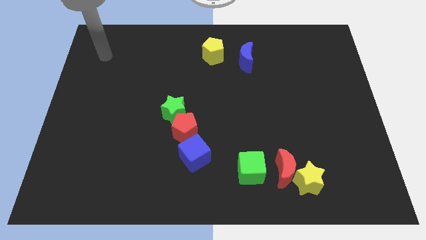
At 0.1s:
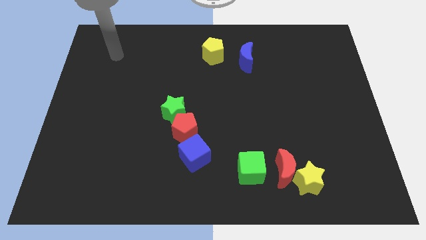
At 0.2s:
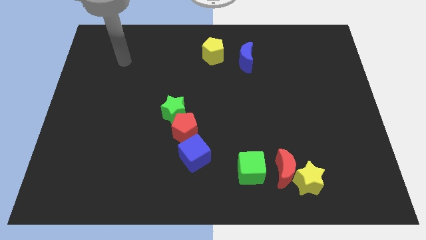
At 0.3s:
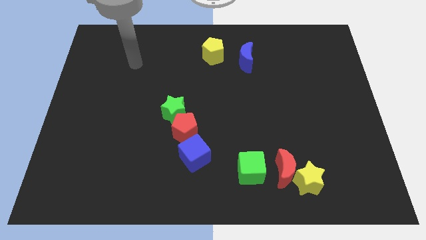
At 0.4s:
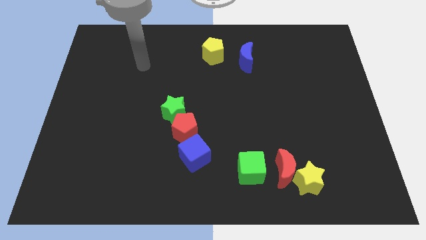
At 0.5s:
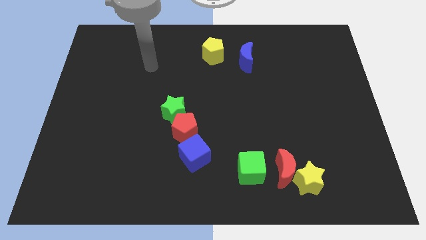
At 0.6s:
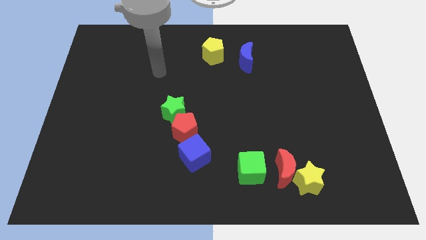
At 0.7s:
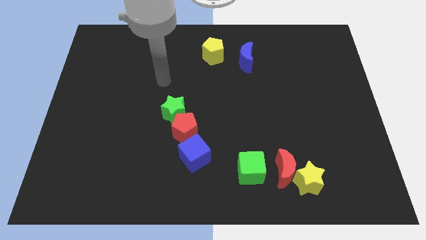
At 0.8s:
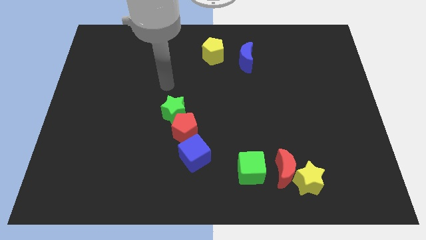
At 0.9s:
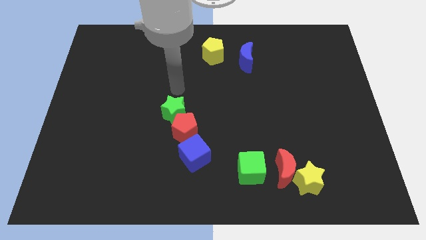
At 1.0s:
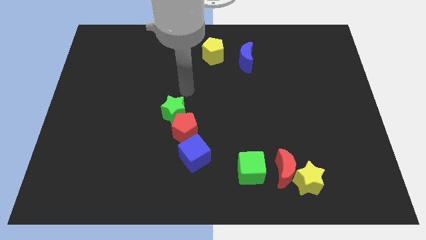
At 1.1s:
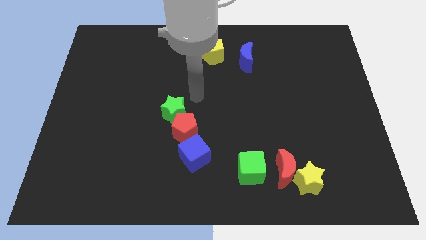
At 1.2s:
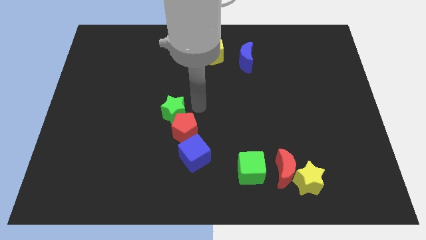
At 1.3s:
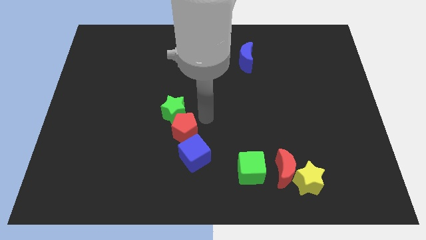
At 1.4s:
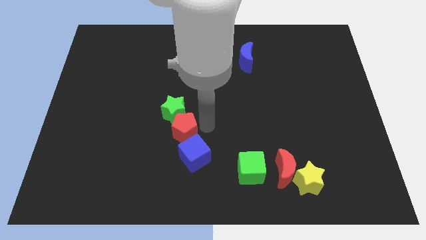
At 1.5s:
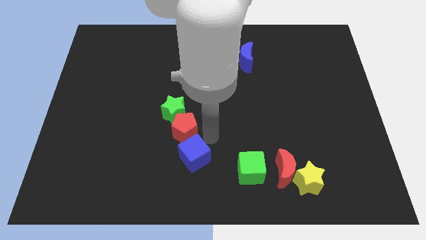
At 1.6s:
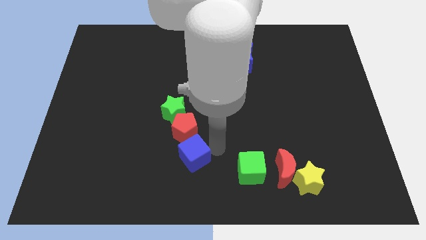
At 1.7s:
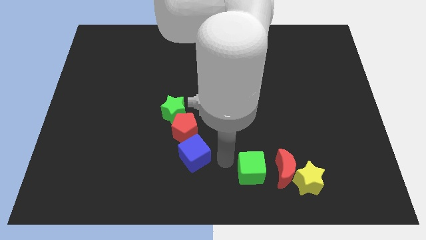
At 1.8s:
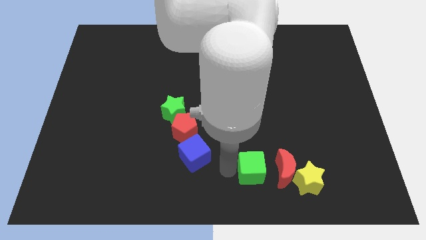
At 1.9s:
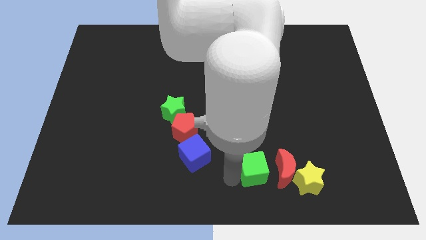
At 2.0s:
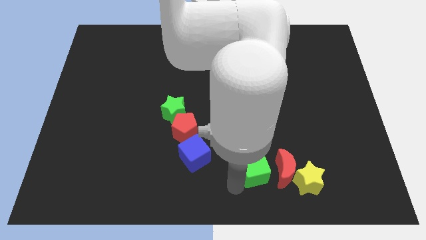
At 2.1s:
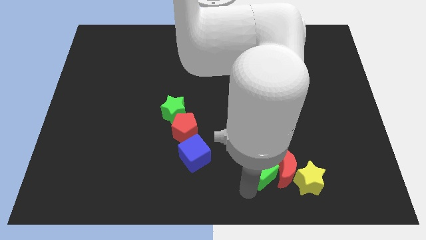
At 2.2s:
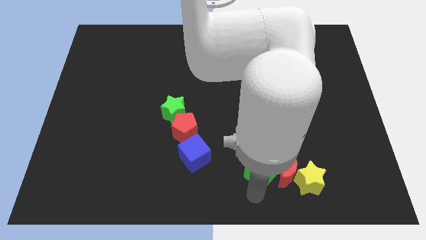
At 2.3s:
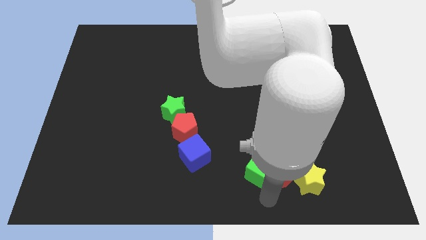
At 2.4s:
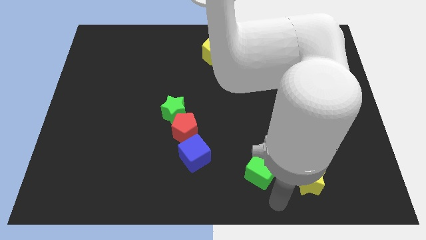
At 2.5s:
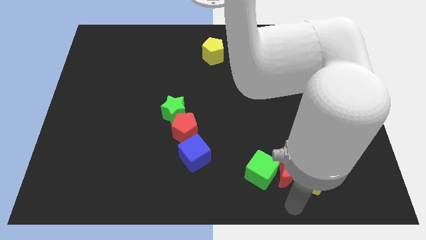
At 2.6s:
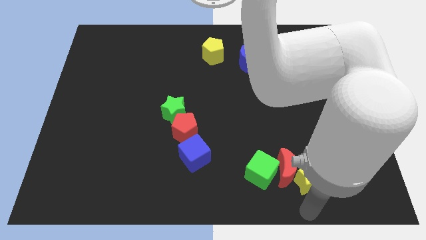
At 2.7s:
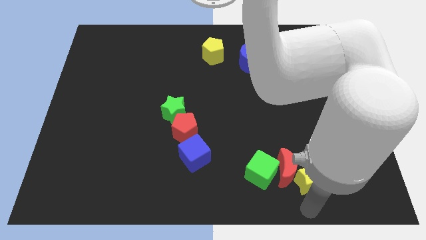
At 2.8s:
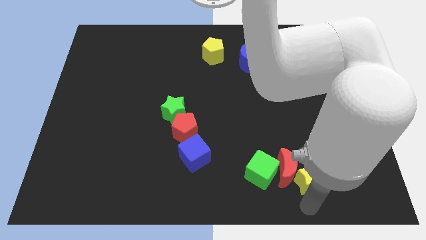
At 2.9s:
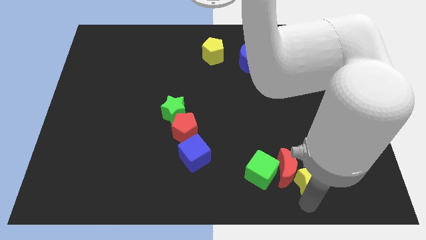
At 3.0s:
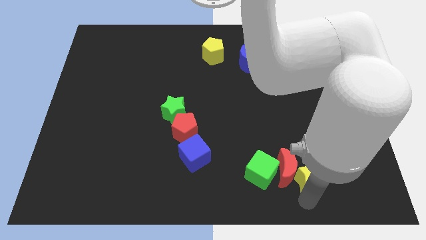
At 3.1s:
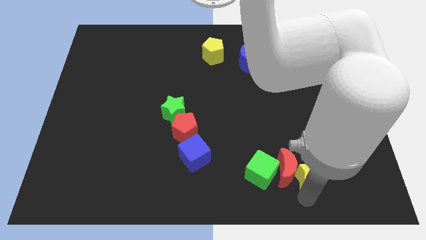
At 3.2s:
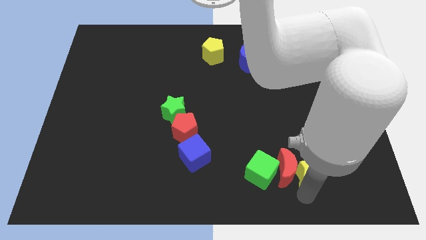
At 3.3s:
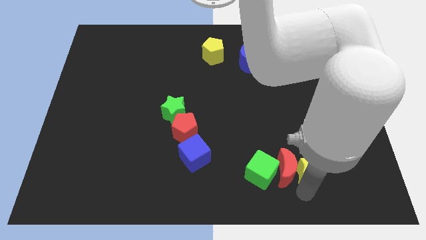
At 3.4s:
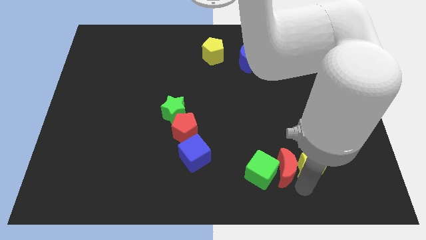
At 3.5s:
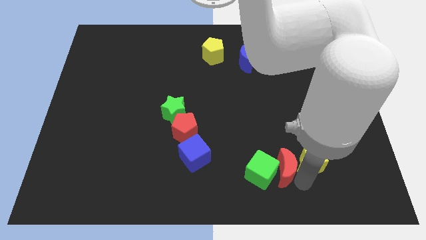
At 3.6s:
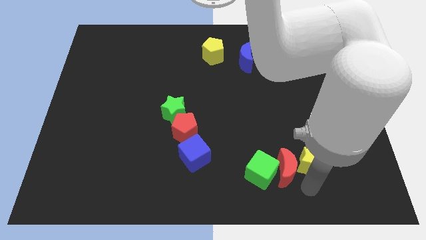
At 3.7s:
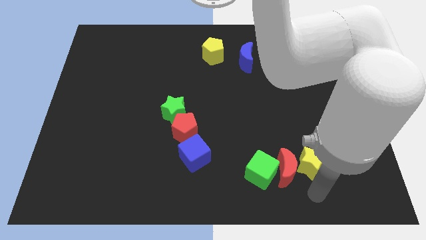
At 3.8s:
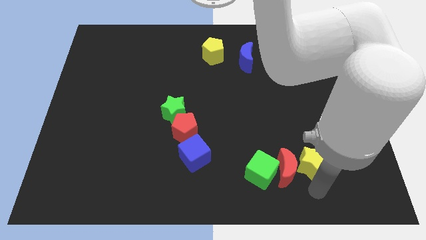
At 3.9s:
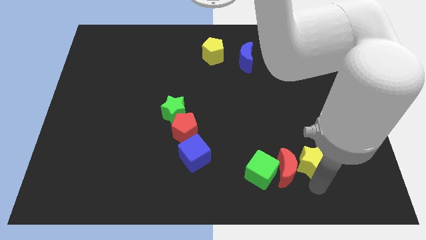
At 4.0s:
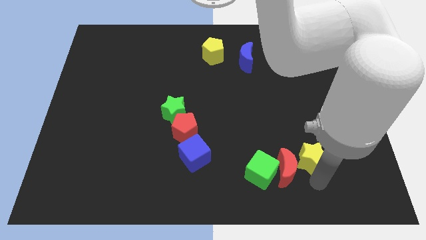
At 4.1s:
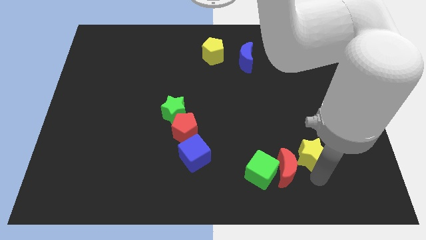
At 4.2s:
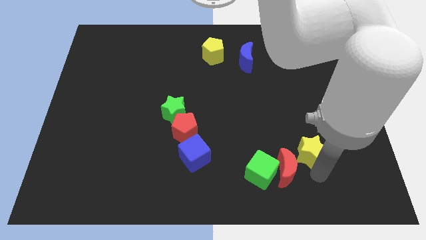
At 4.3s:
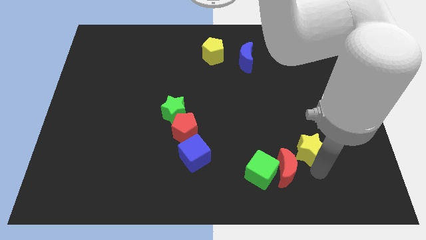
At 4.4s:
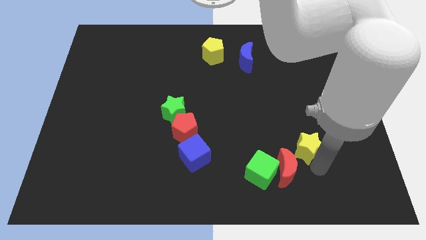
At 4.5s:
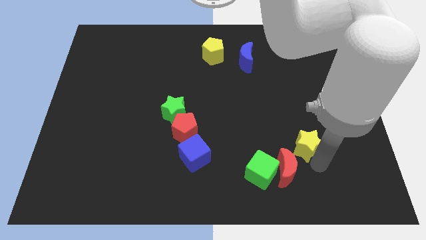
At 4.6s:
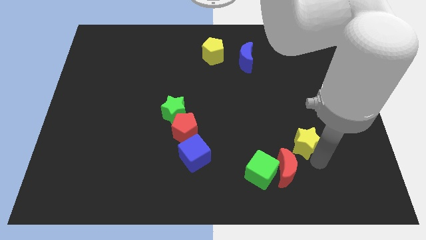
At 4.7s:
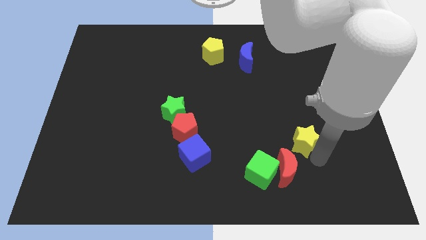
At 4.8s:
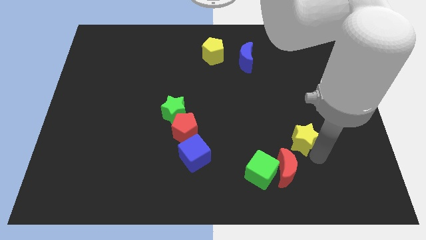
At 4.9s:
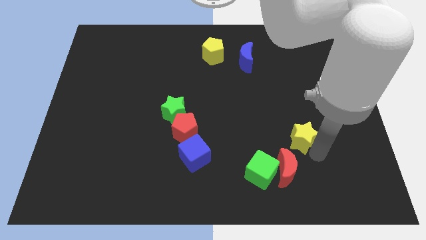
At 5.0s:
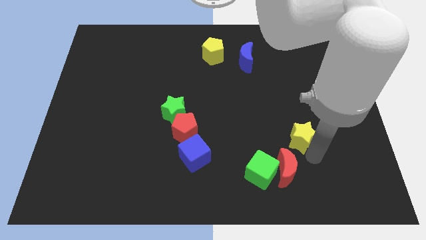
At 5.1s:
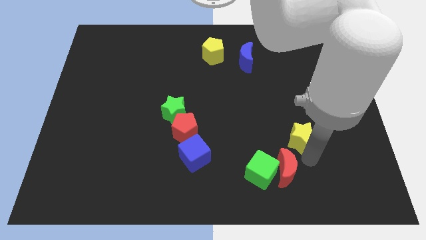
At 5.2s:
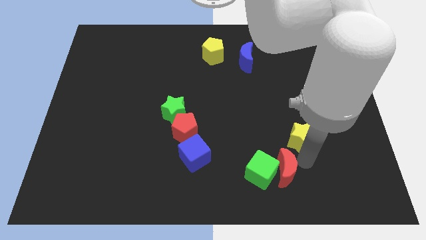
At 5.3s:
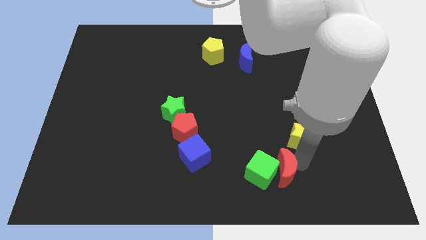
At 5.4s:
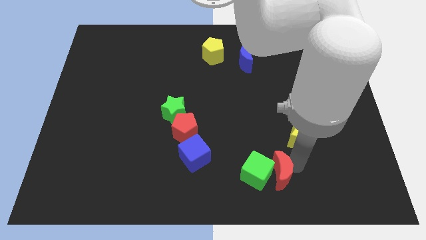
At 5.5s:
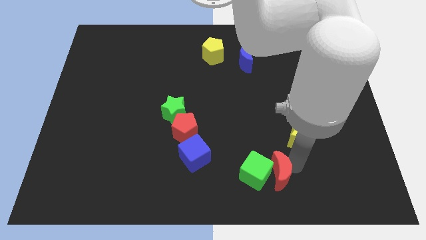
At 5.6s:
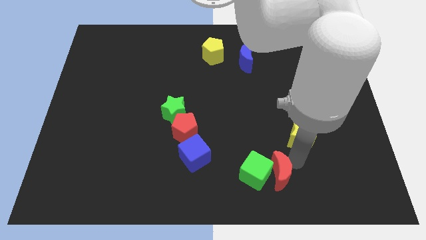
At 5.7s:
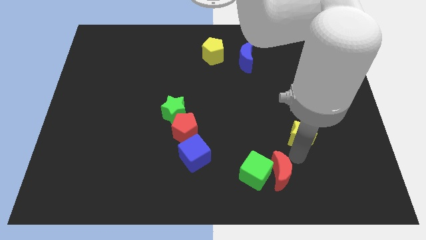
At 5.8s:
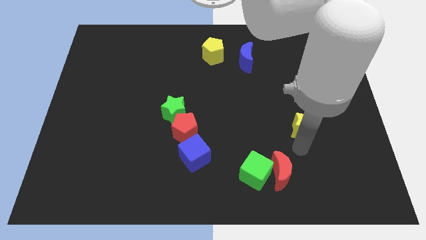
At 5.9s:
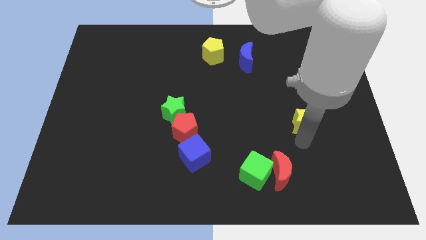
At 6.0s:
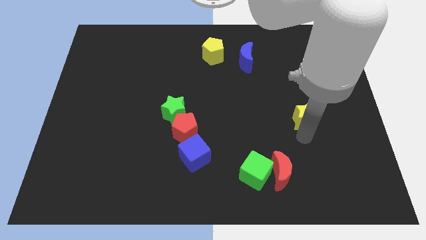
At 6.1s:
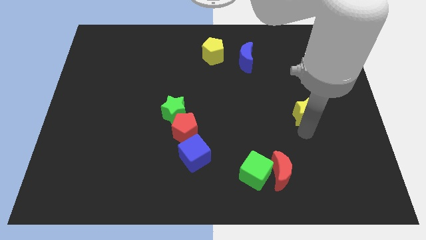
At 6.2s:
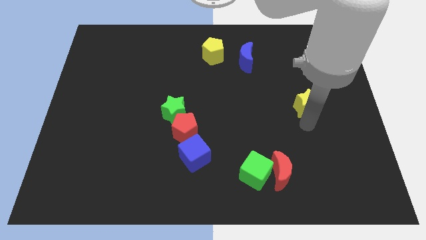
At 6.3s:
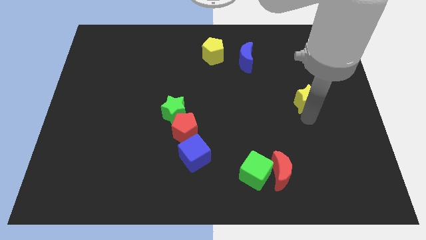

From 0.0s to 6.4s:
push the yellow star up

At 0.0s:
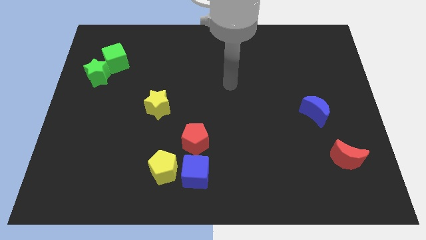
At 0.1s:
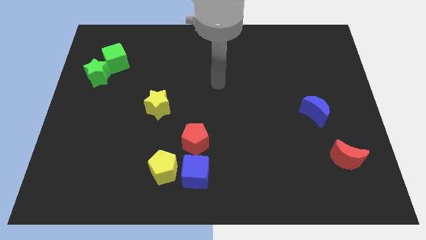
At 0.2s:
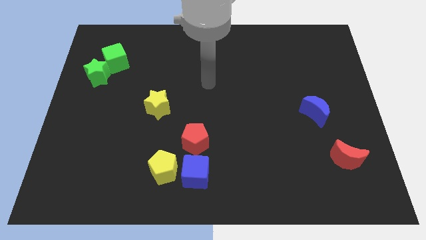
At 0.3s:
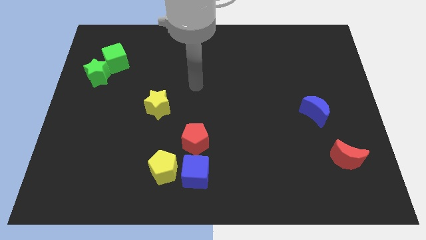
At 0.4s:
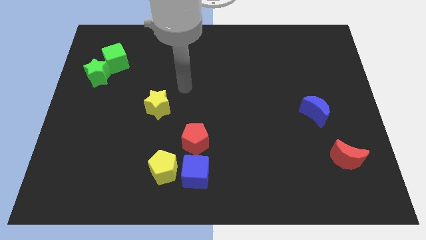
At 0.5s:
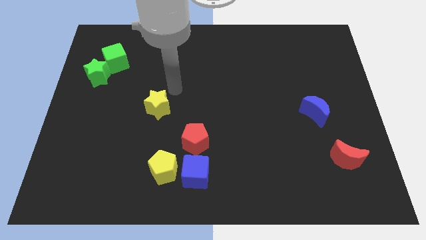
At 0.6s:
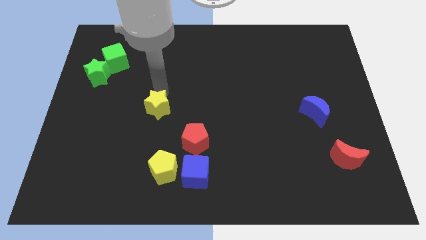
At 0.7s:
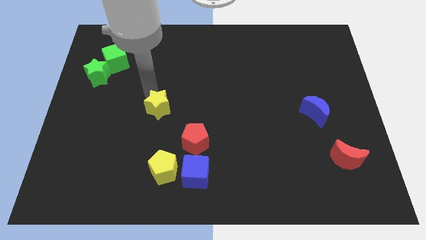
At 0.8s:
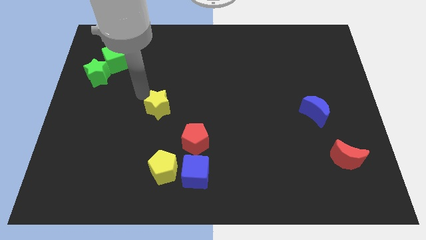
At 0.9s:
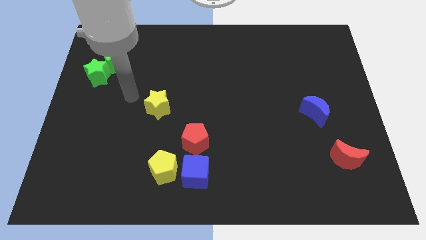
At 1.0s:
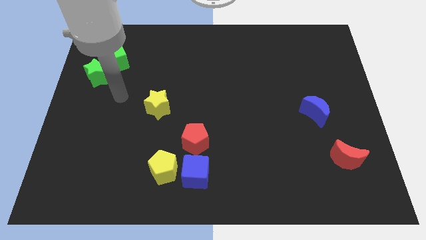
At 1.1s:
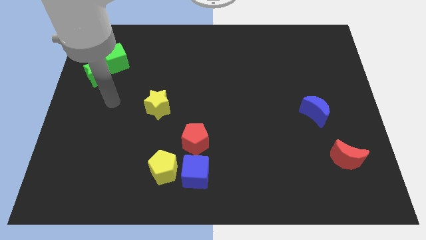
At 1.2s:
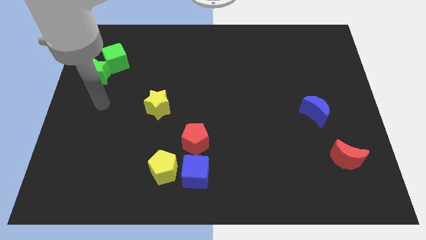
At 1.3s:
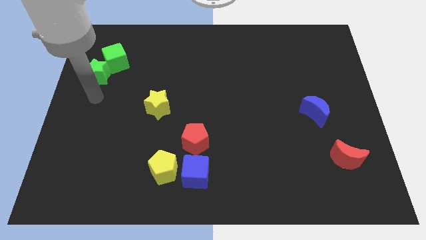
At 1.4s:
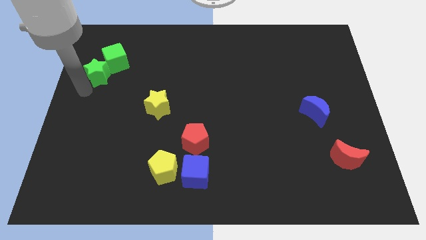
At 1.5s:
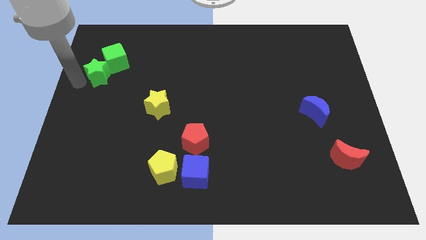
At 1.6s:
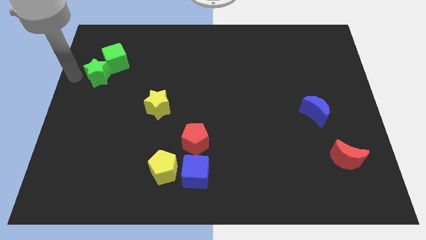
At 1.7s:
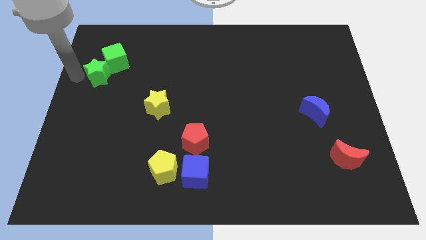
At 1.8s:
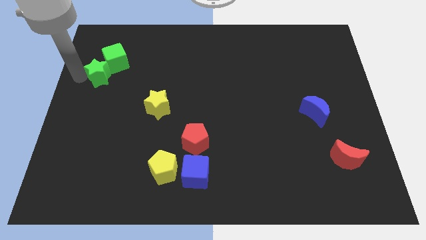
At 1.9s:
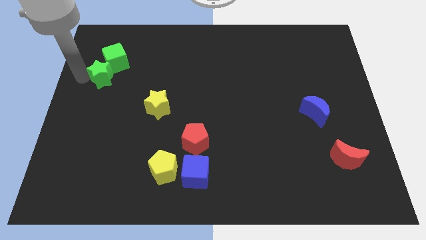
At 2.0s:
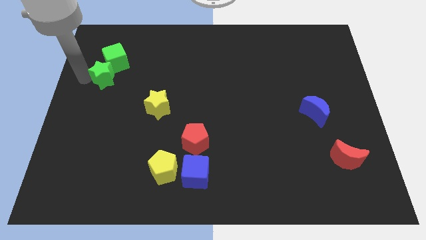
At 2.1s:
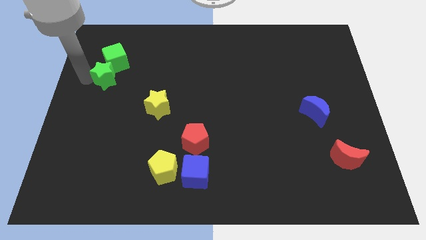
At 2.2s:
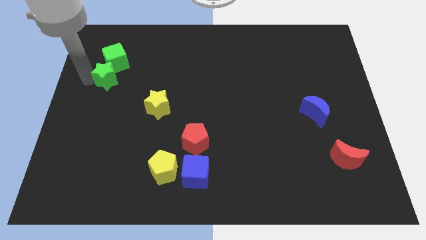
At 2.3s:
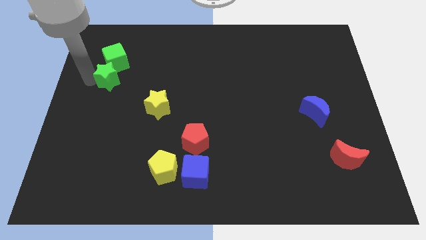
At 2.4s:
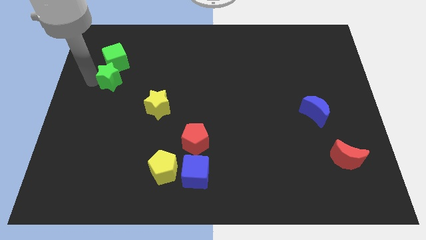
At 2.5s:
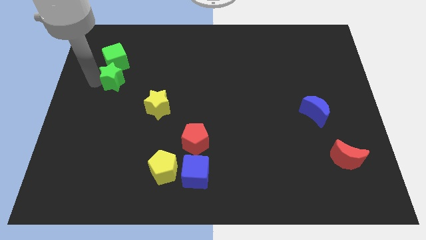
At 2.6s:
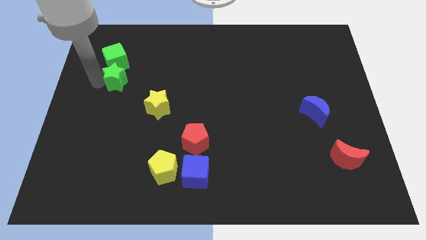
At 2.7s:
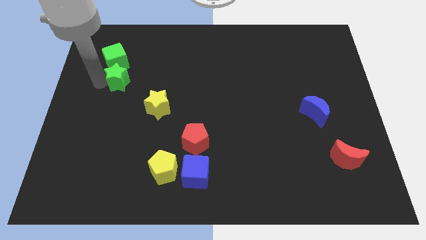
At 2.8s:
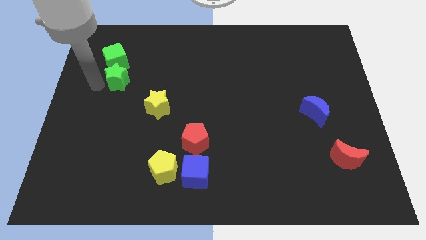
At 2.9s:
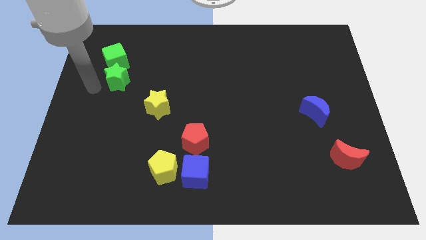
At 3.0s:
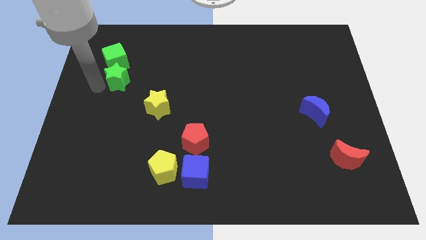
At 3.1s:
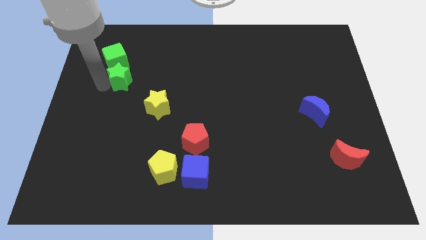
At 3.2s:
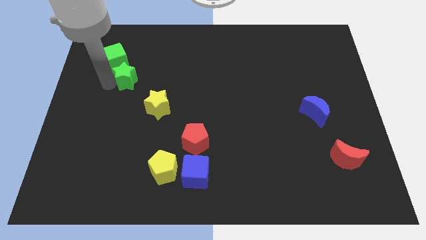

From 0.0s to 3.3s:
move the green star a bit right
